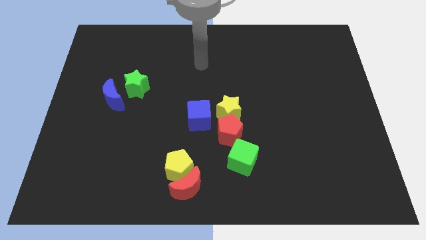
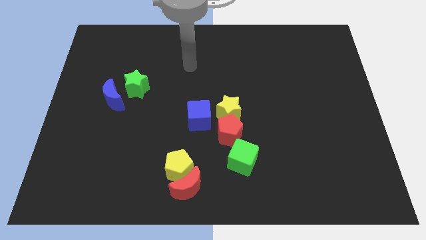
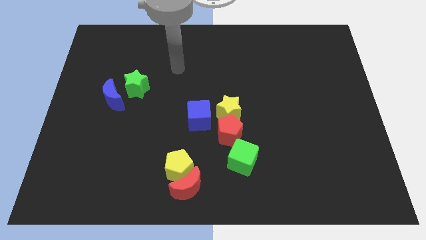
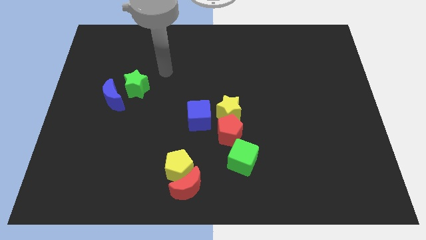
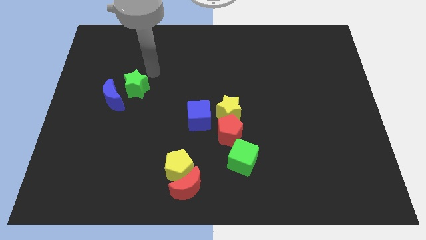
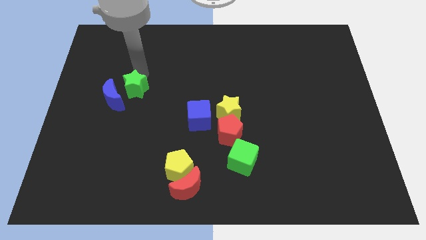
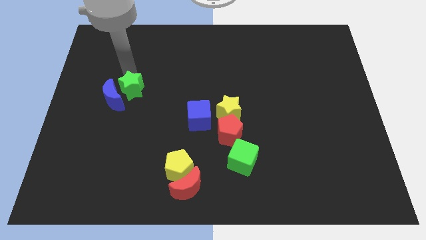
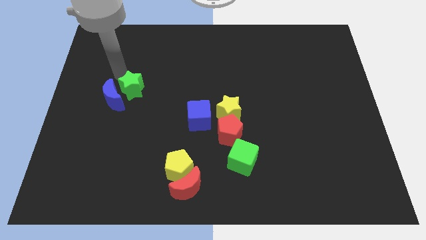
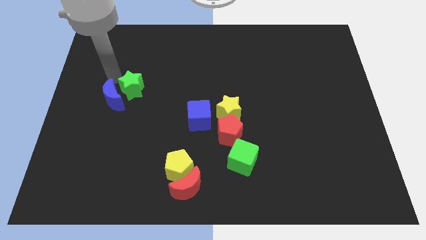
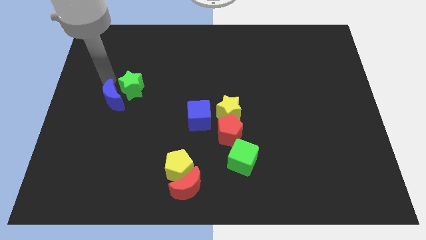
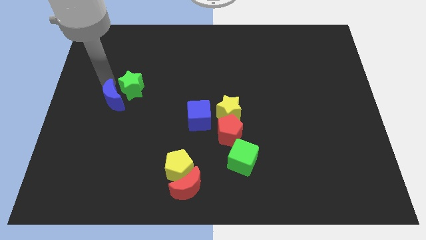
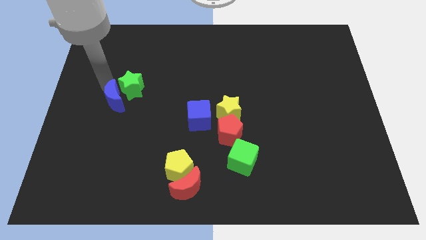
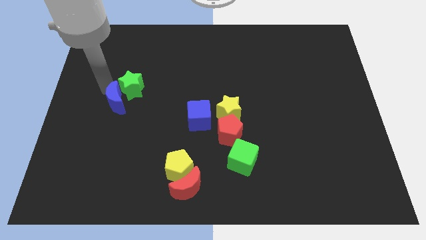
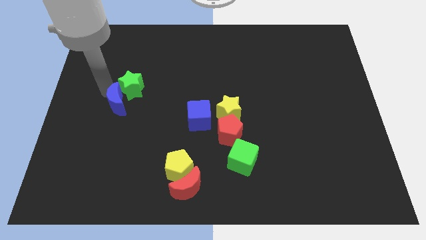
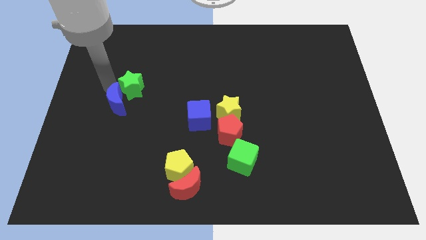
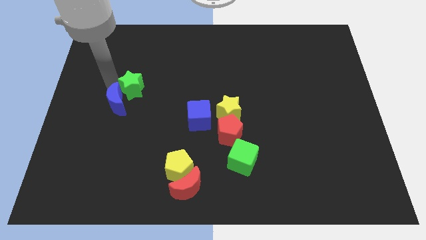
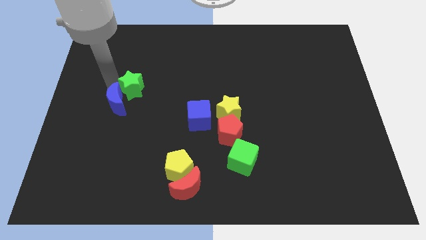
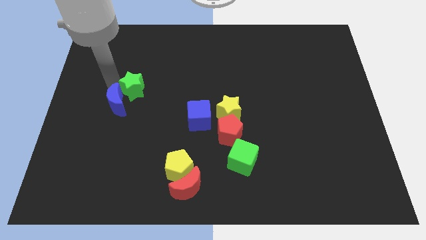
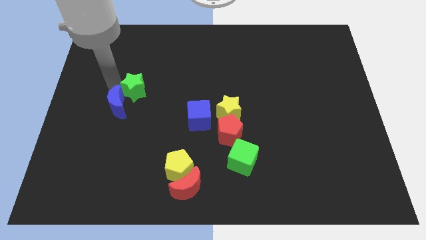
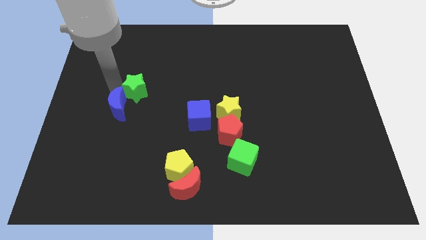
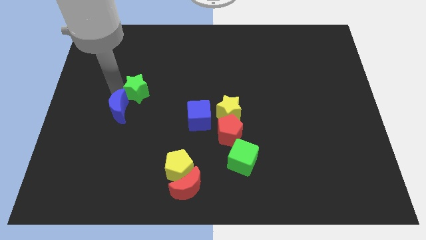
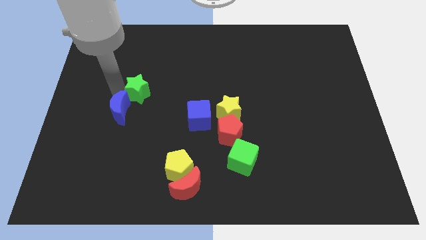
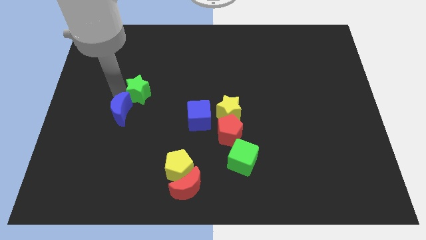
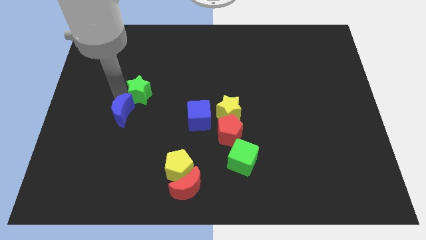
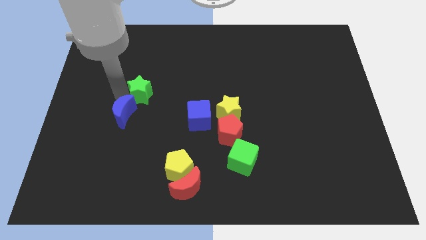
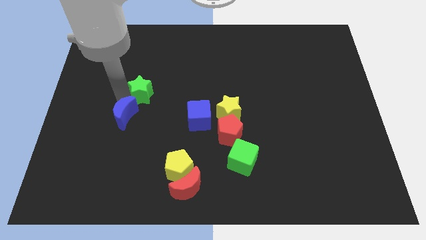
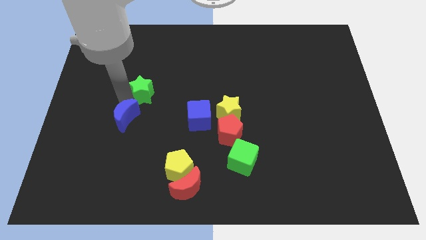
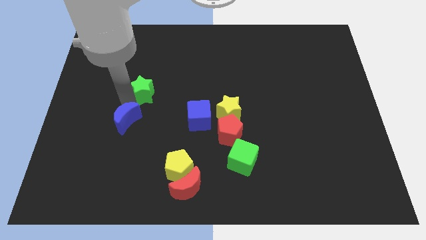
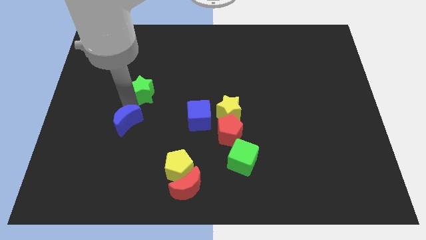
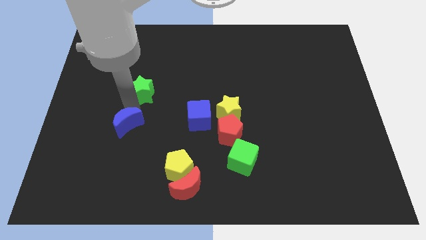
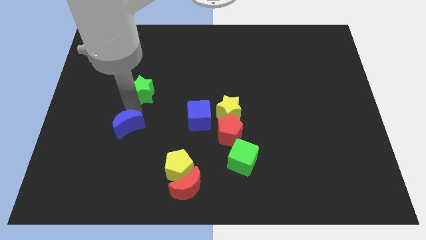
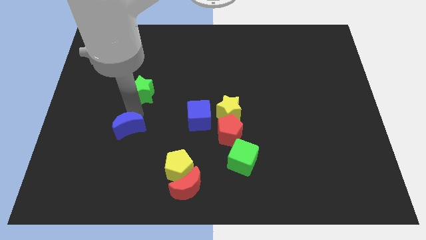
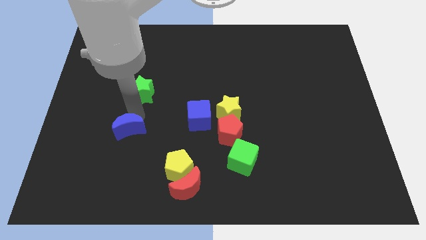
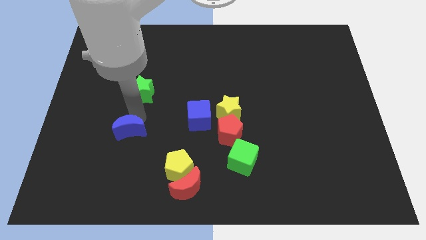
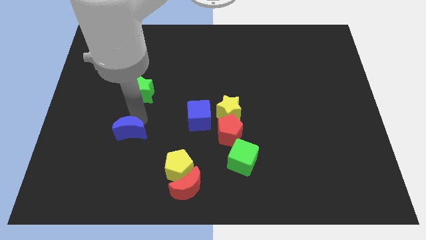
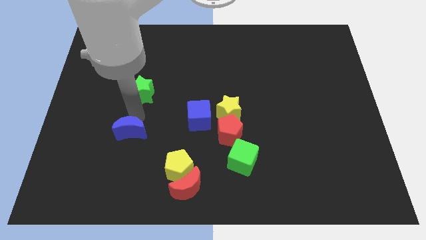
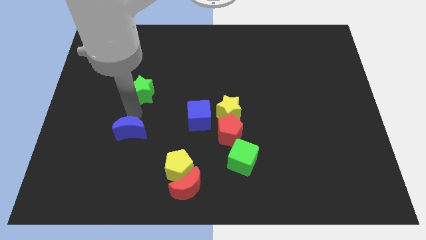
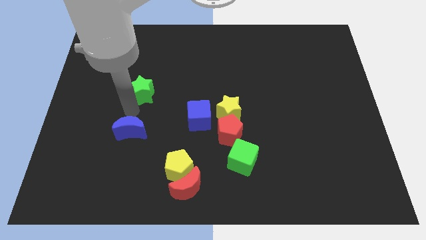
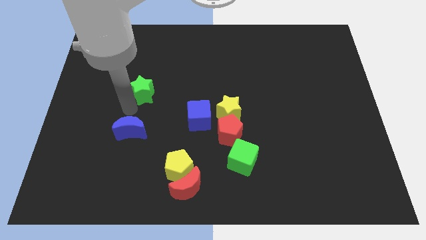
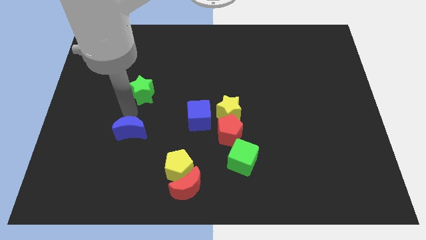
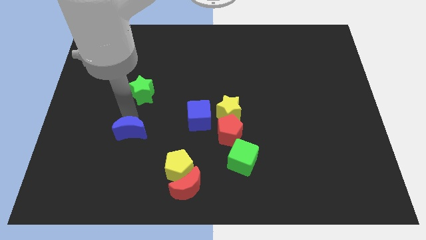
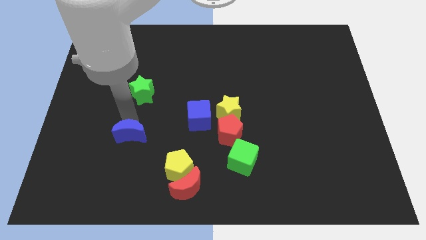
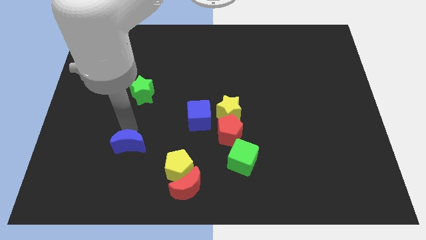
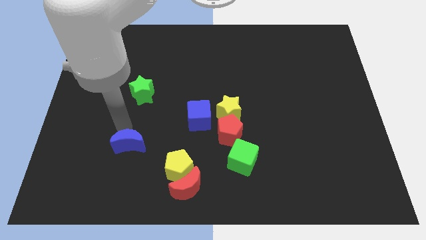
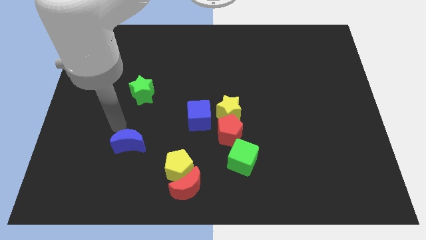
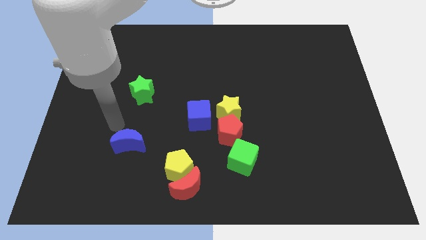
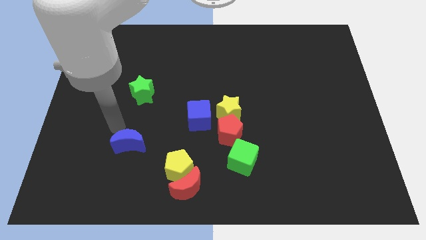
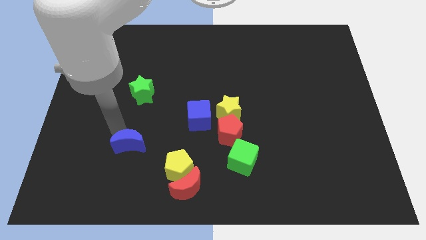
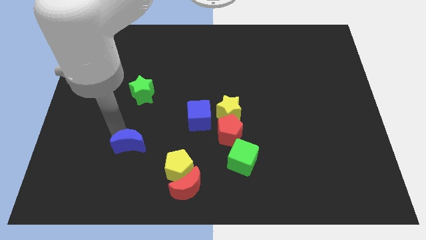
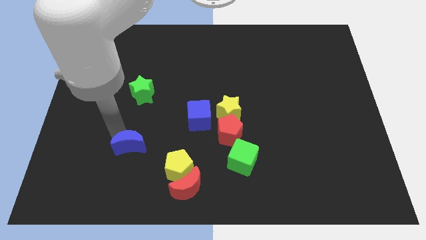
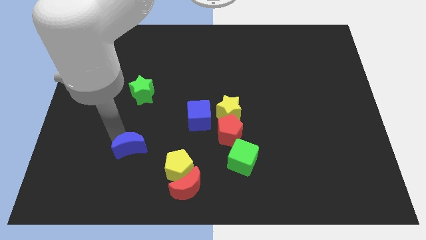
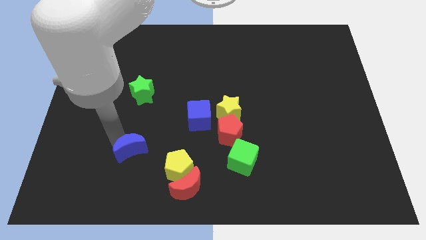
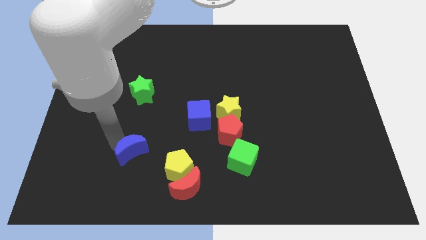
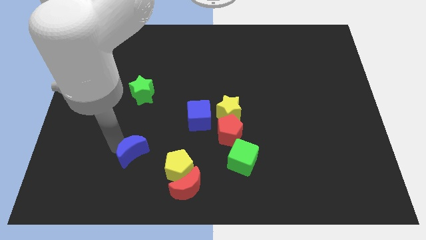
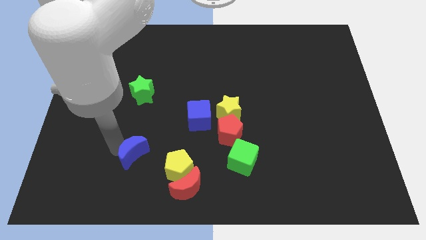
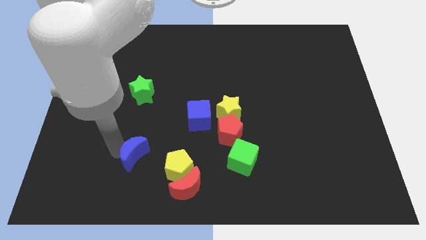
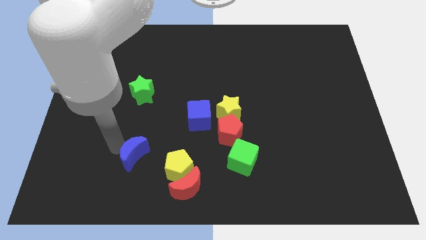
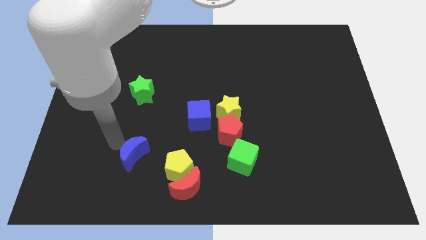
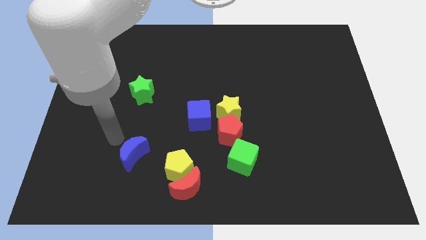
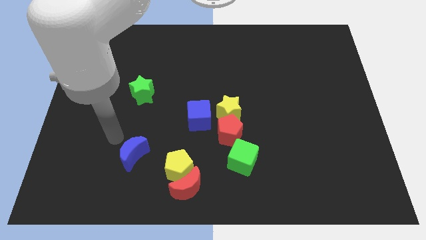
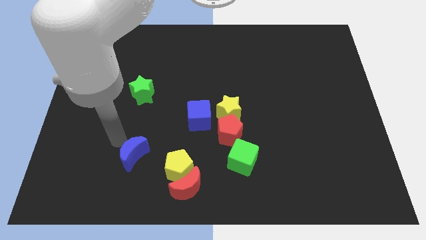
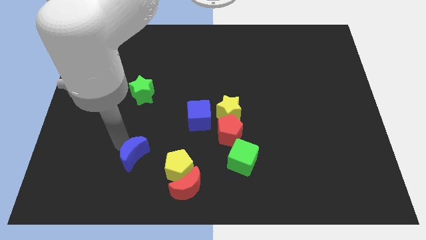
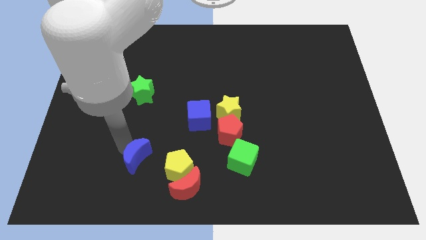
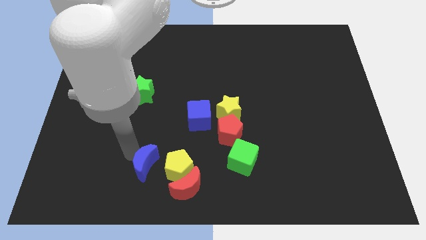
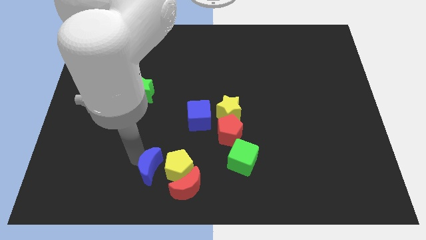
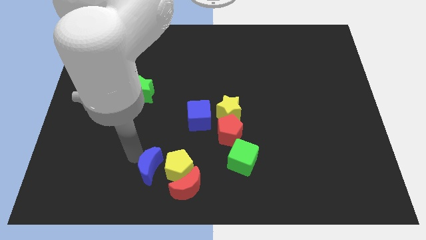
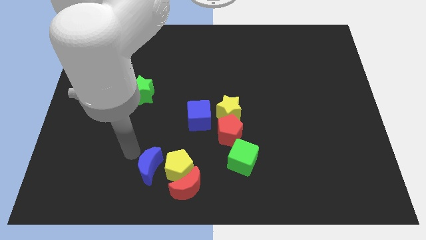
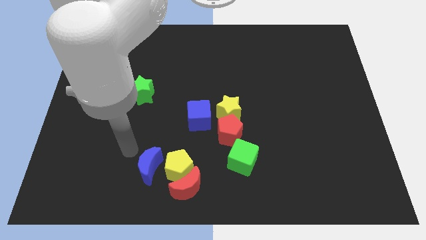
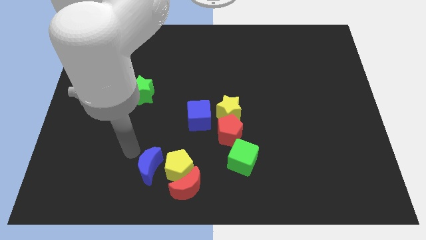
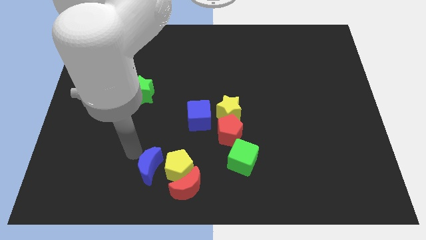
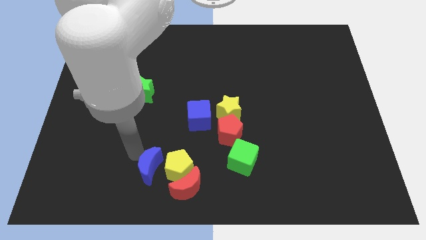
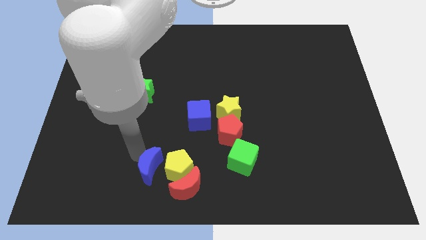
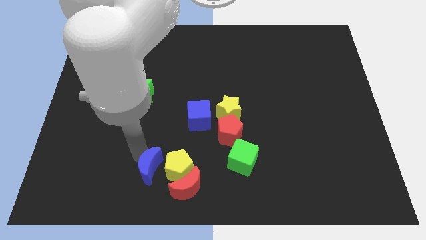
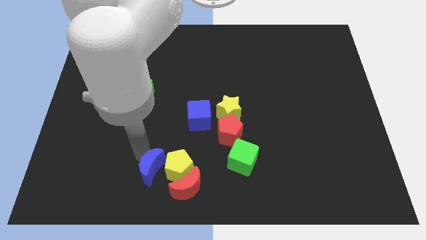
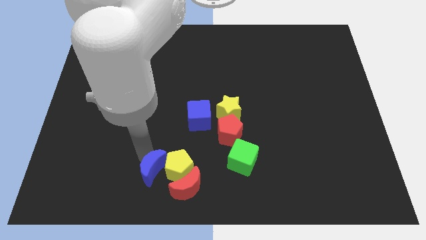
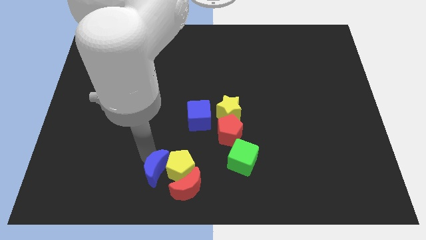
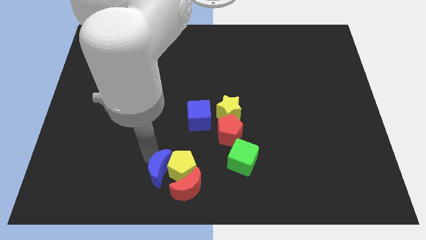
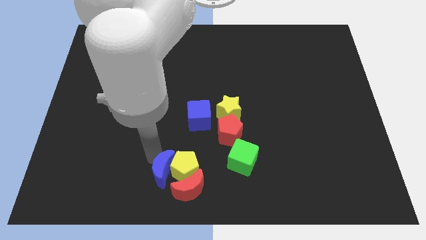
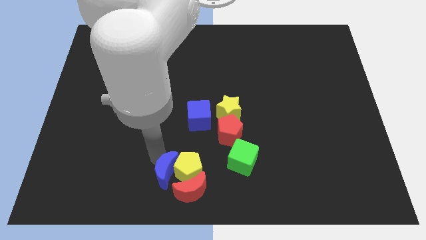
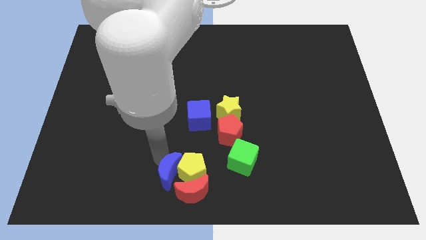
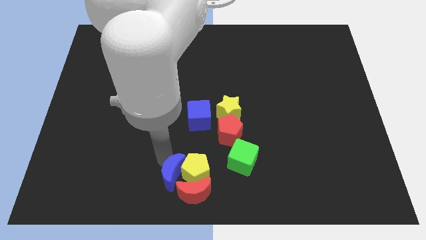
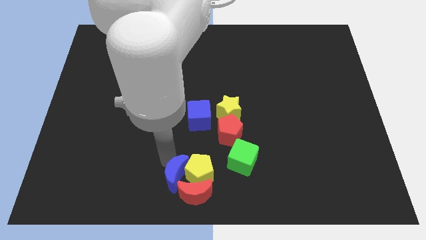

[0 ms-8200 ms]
move the blue moon towards the red moon
